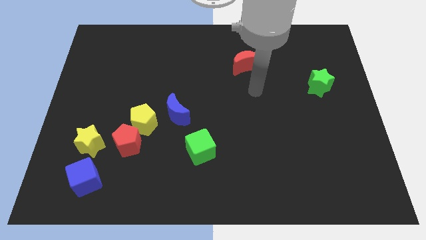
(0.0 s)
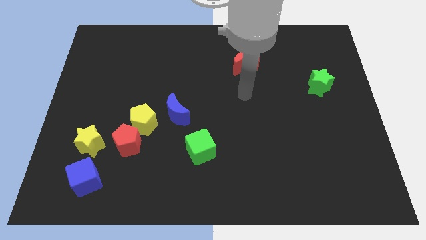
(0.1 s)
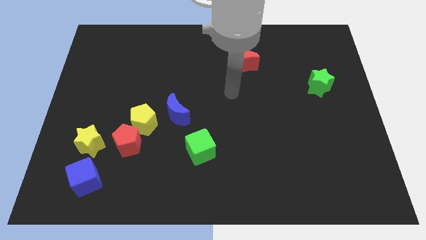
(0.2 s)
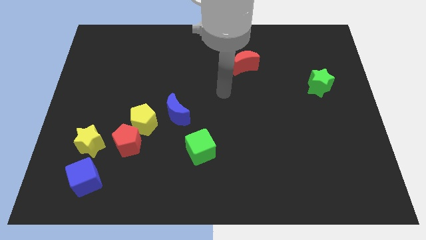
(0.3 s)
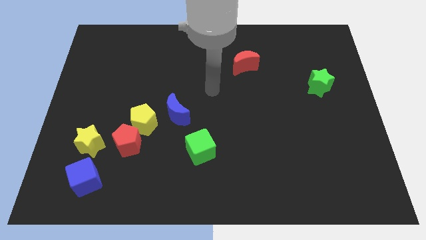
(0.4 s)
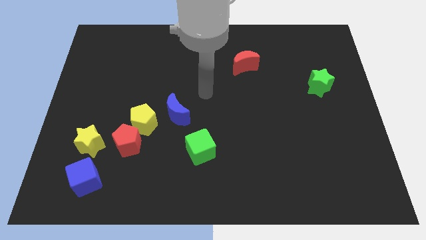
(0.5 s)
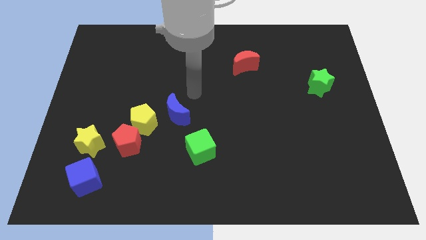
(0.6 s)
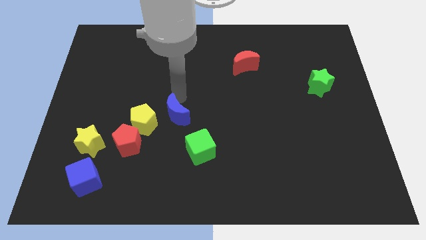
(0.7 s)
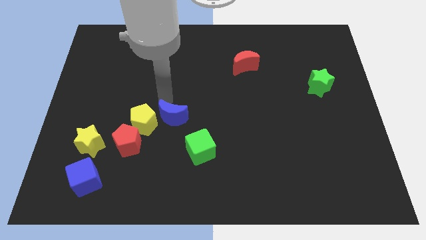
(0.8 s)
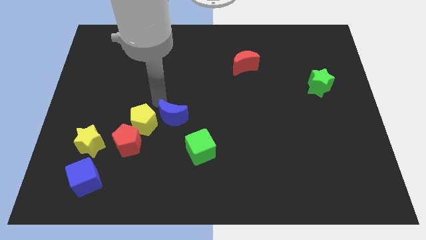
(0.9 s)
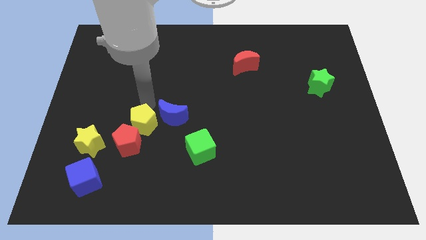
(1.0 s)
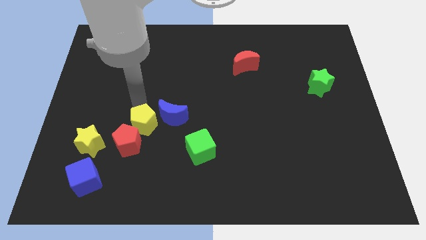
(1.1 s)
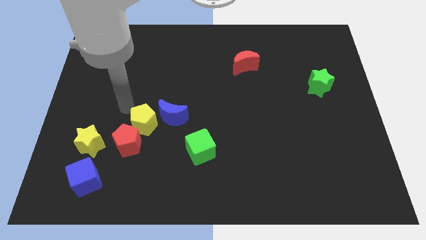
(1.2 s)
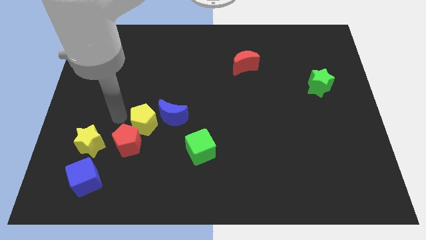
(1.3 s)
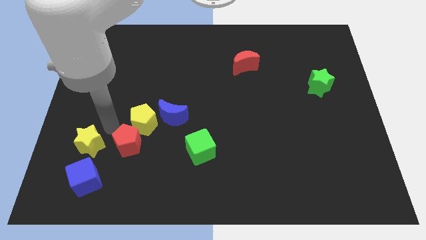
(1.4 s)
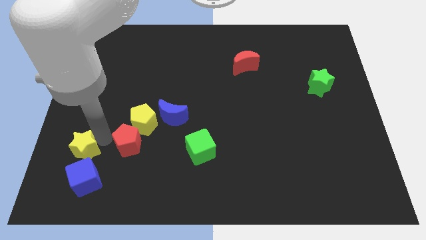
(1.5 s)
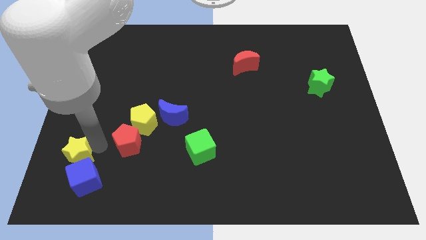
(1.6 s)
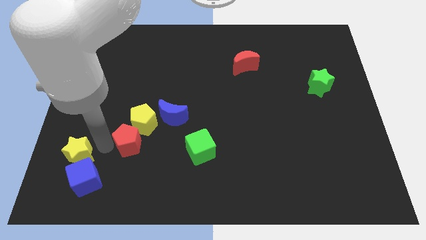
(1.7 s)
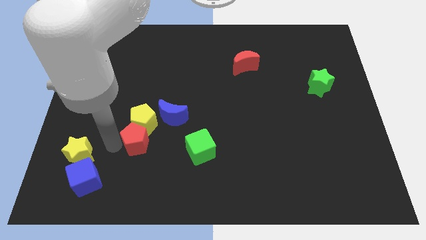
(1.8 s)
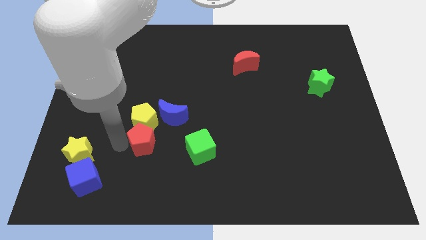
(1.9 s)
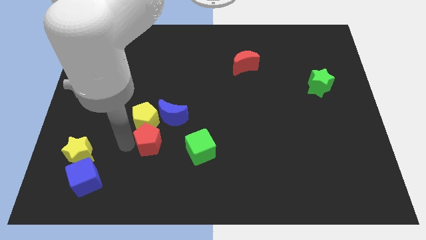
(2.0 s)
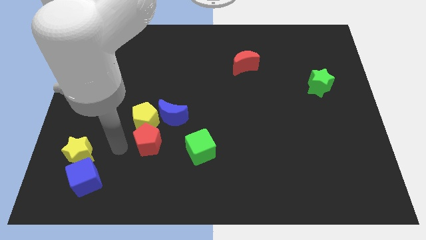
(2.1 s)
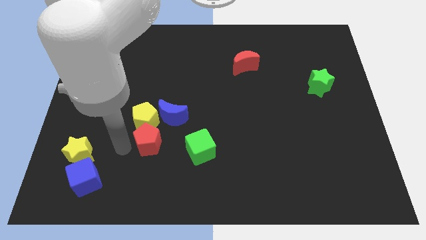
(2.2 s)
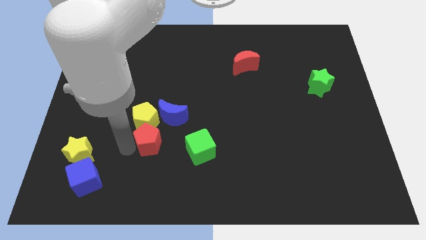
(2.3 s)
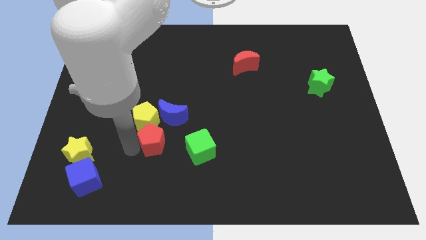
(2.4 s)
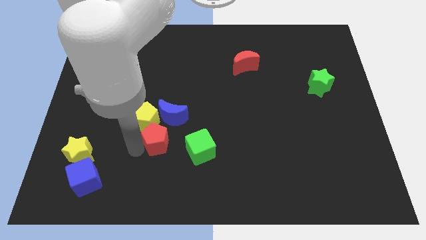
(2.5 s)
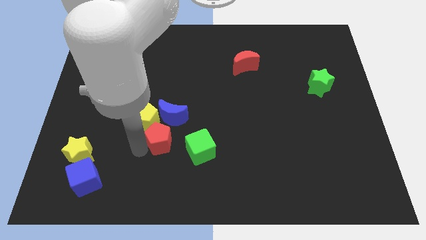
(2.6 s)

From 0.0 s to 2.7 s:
slightly move the red pentagon to the right

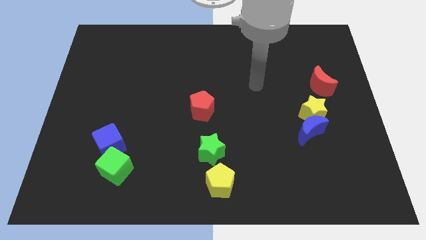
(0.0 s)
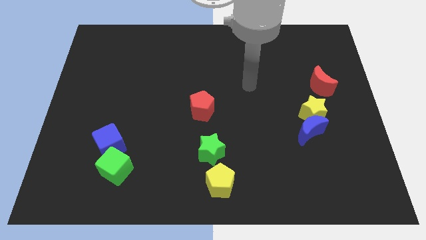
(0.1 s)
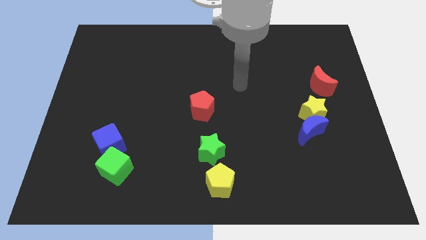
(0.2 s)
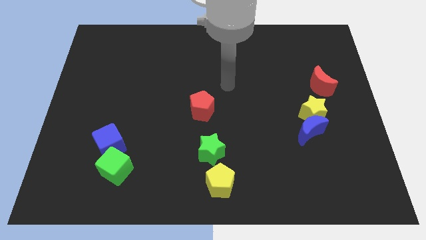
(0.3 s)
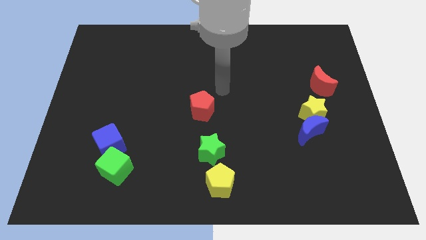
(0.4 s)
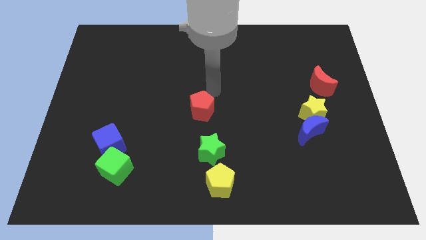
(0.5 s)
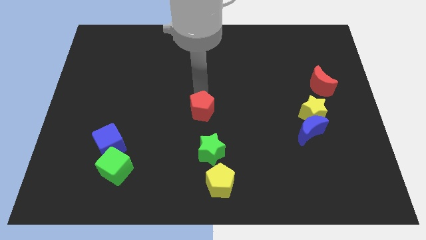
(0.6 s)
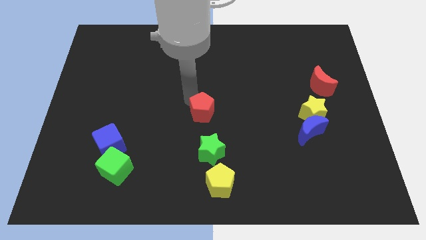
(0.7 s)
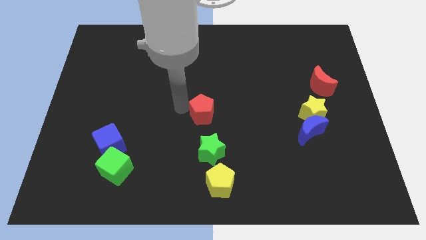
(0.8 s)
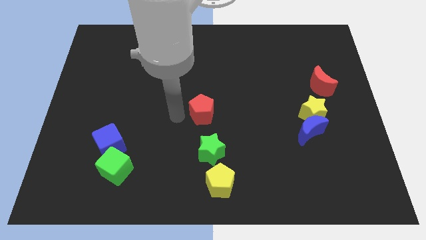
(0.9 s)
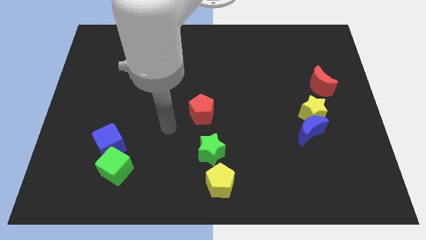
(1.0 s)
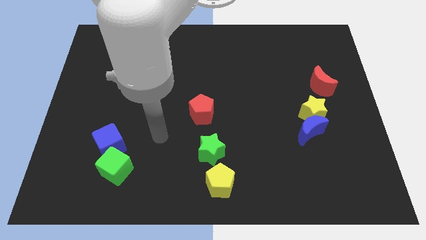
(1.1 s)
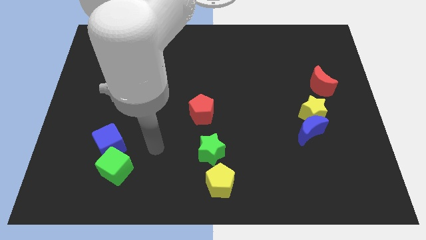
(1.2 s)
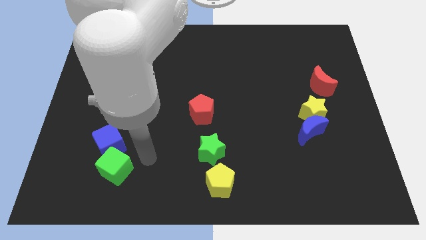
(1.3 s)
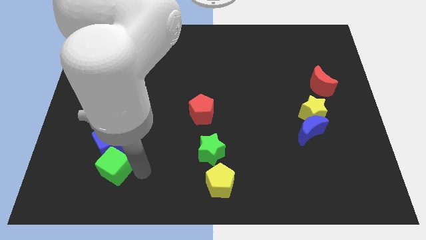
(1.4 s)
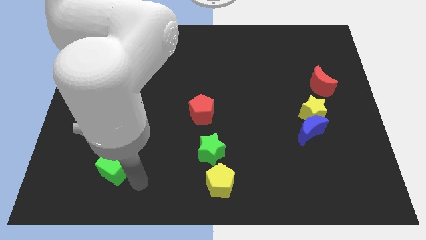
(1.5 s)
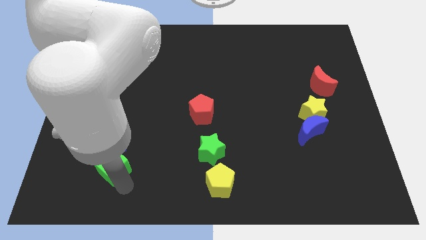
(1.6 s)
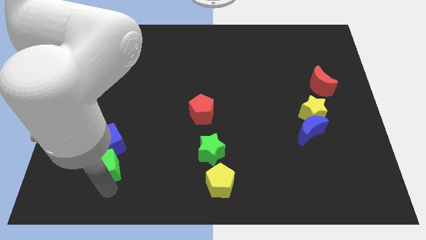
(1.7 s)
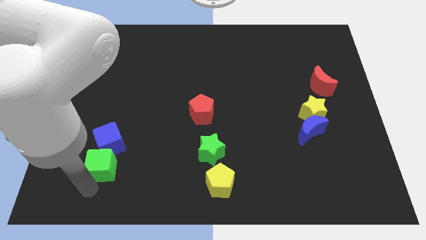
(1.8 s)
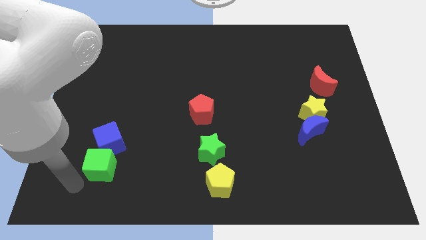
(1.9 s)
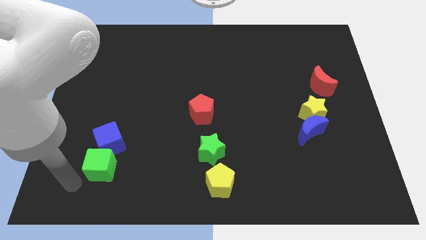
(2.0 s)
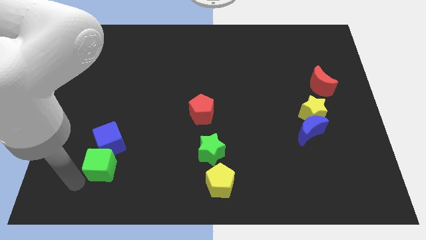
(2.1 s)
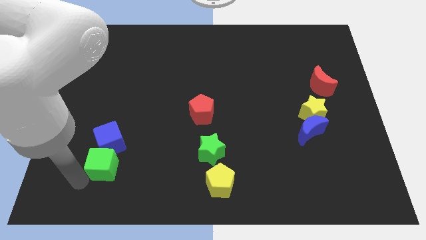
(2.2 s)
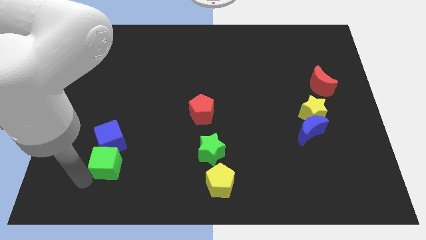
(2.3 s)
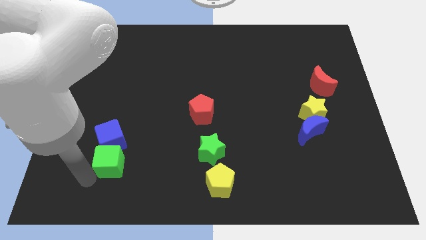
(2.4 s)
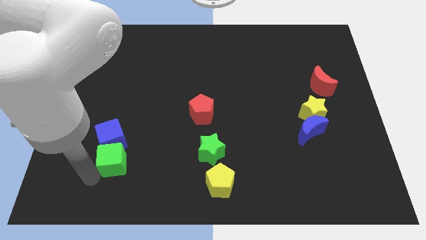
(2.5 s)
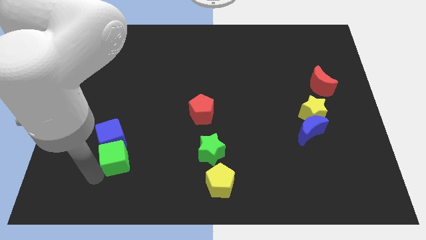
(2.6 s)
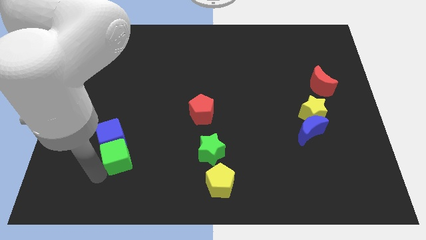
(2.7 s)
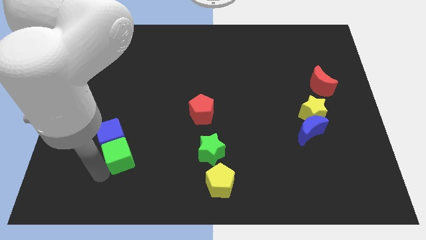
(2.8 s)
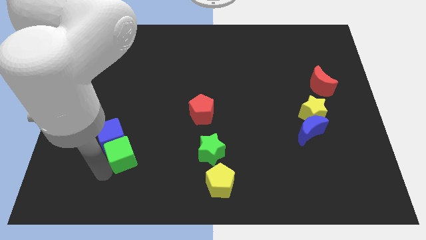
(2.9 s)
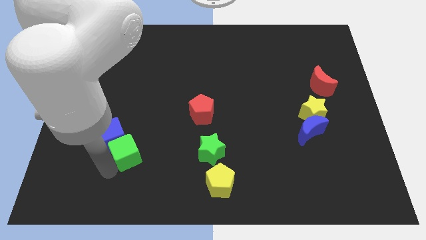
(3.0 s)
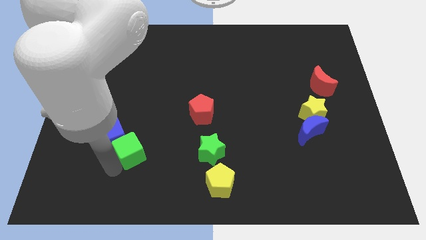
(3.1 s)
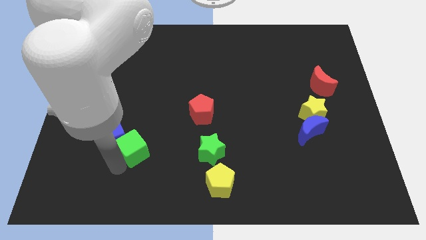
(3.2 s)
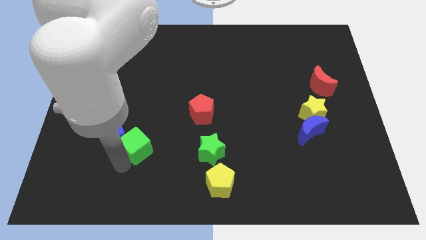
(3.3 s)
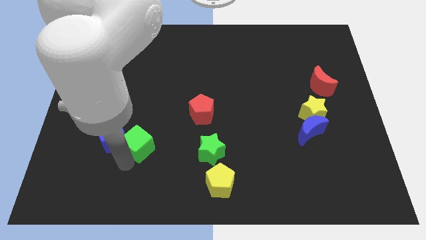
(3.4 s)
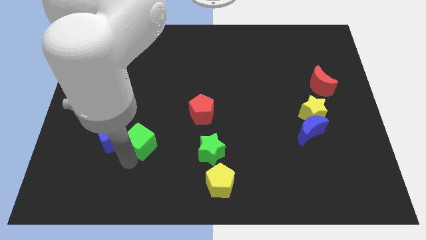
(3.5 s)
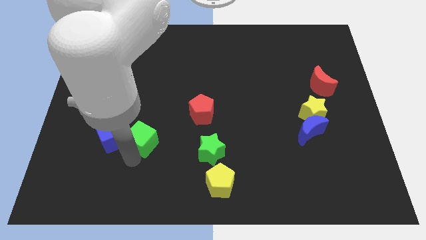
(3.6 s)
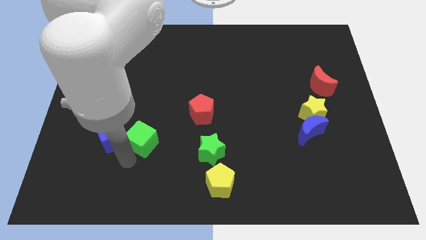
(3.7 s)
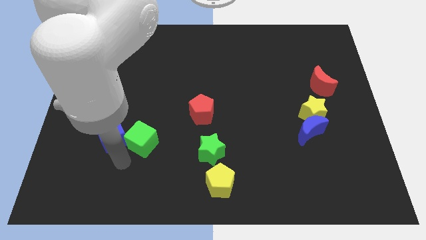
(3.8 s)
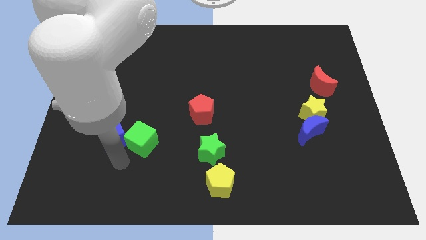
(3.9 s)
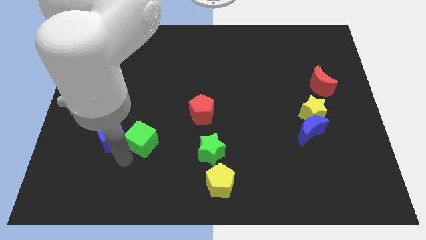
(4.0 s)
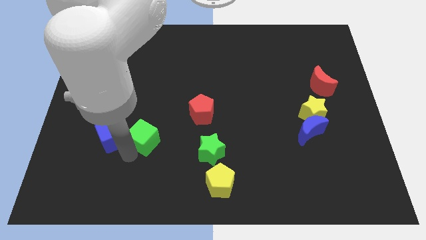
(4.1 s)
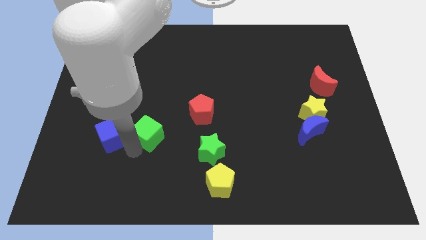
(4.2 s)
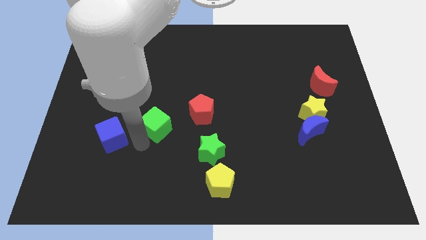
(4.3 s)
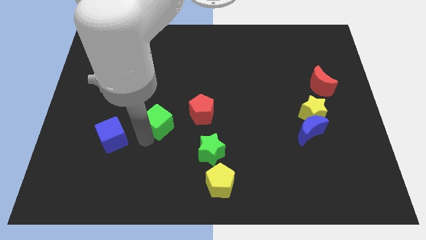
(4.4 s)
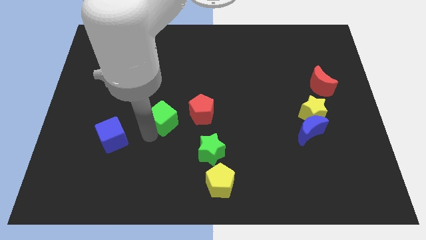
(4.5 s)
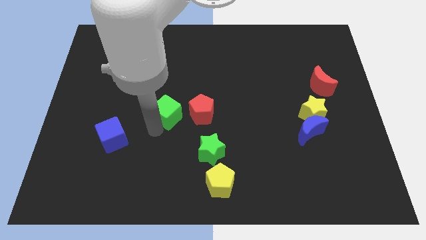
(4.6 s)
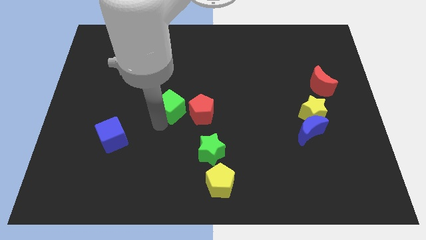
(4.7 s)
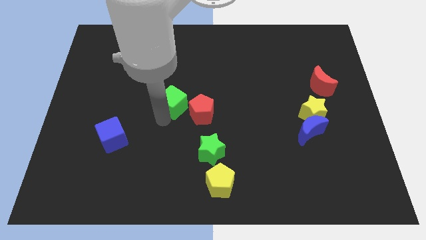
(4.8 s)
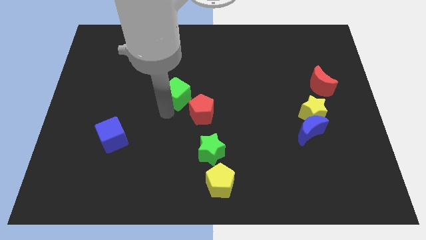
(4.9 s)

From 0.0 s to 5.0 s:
move the green cube up and then right

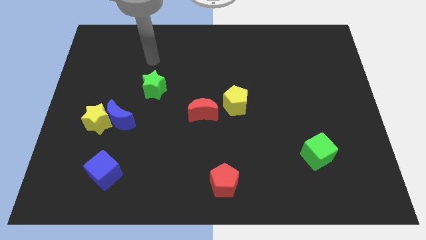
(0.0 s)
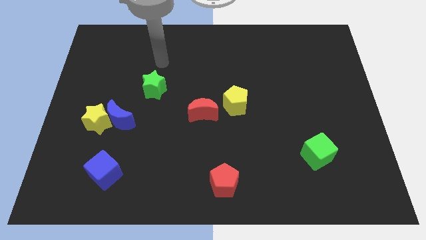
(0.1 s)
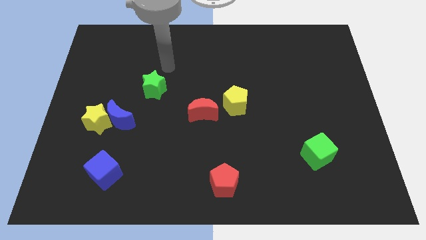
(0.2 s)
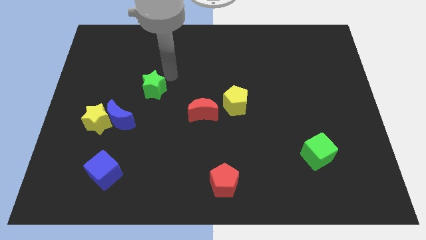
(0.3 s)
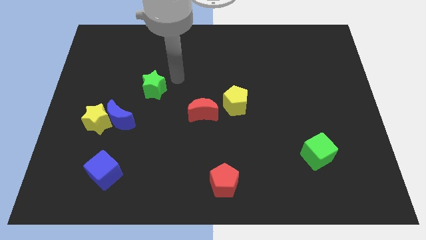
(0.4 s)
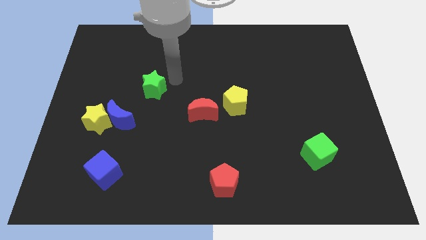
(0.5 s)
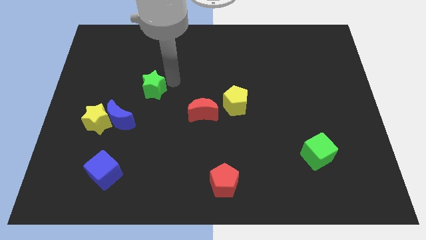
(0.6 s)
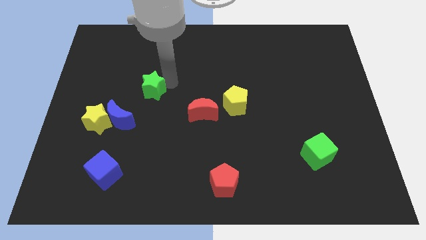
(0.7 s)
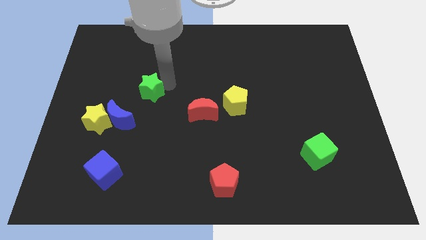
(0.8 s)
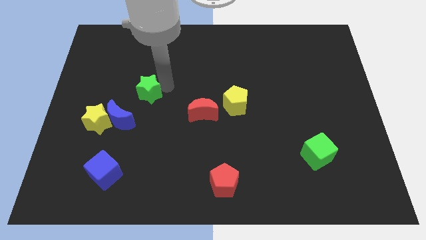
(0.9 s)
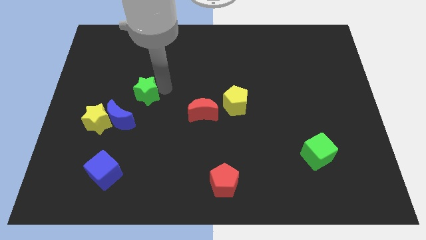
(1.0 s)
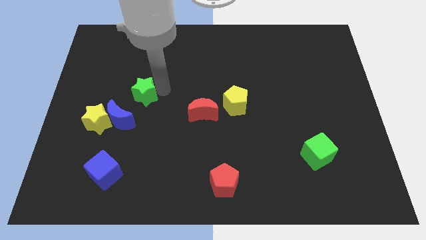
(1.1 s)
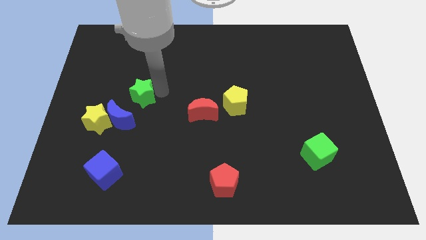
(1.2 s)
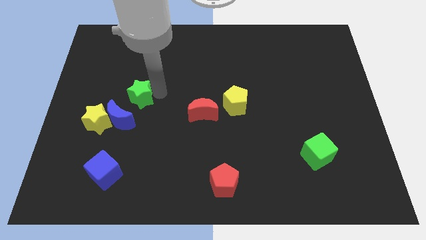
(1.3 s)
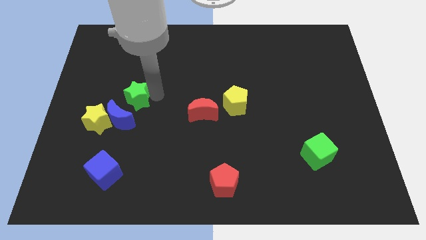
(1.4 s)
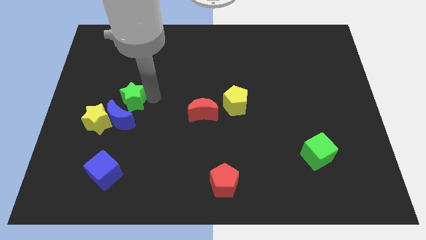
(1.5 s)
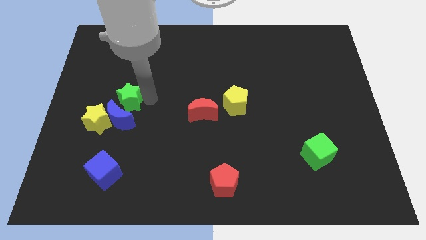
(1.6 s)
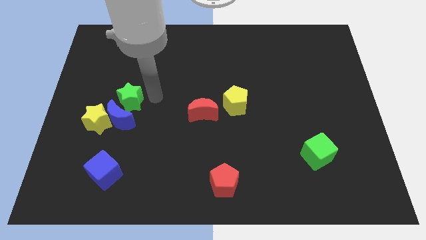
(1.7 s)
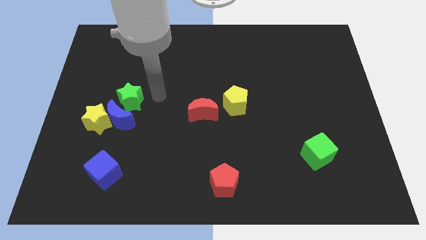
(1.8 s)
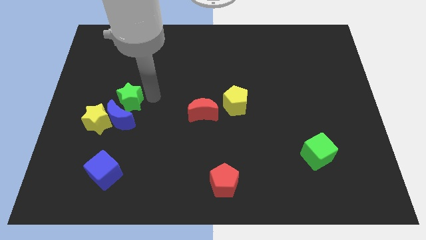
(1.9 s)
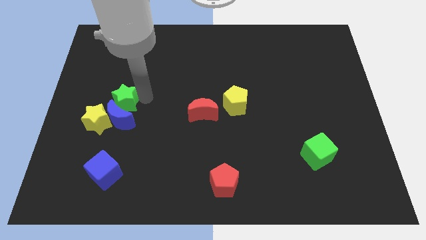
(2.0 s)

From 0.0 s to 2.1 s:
slightly move the green star diagonally downwards and left
